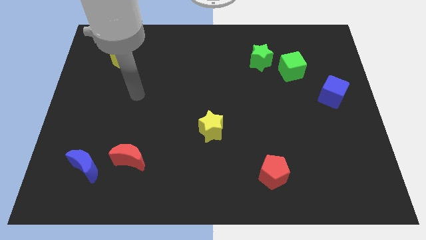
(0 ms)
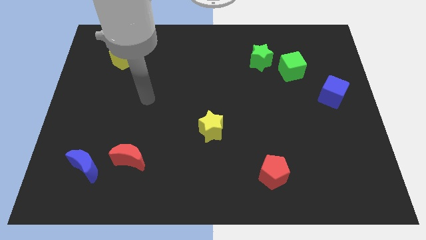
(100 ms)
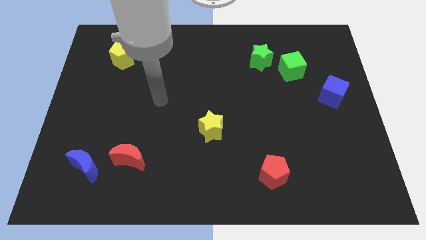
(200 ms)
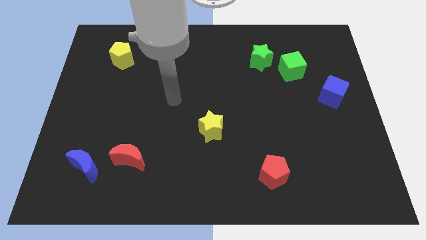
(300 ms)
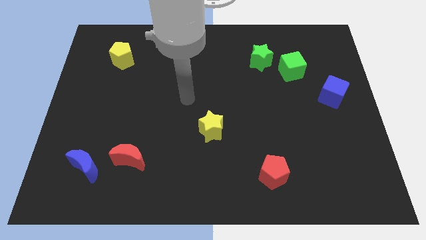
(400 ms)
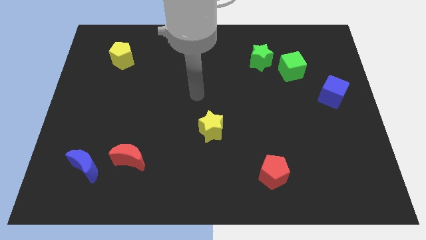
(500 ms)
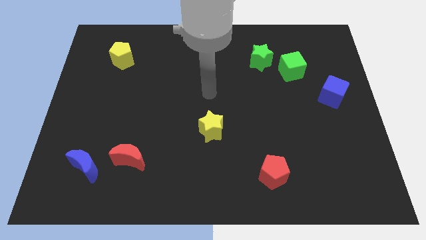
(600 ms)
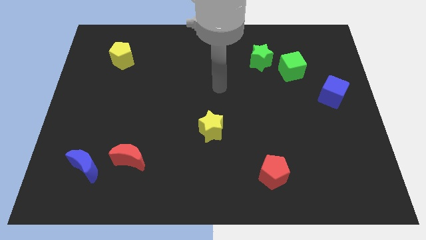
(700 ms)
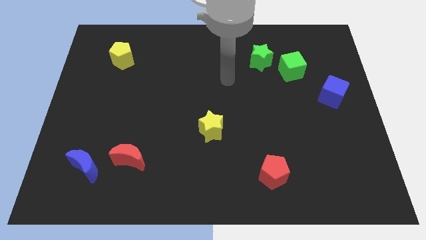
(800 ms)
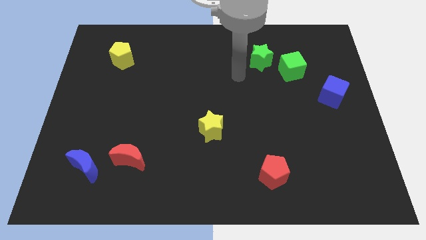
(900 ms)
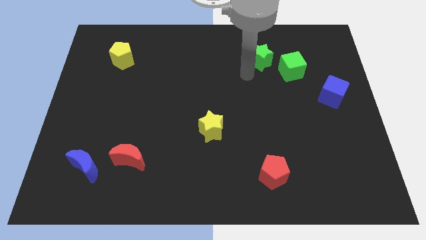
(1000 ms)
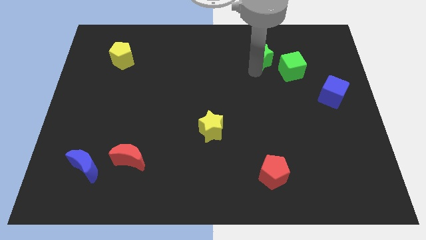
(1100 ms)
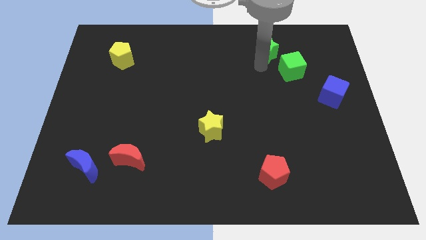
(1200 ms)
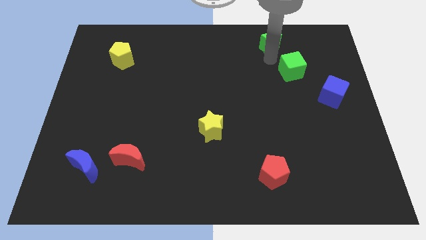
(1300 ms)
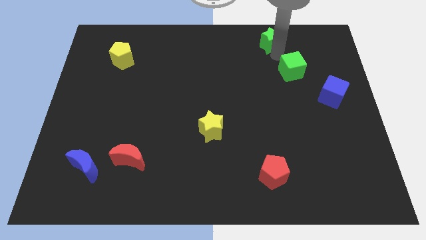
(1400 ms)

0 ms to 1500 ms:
pull the green cube apart from the green star

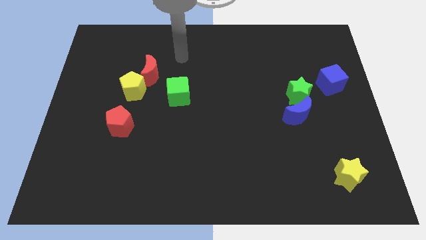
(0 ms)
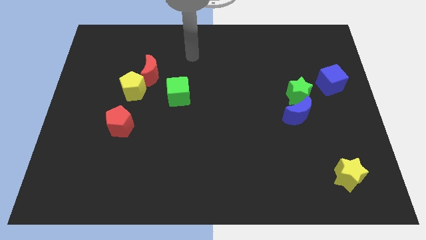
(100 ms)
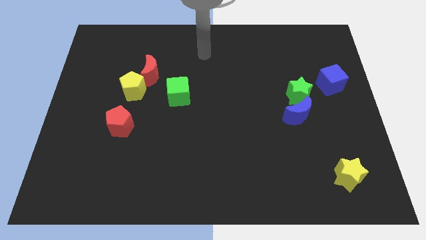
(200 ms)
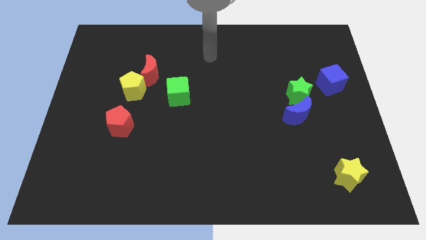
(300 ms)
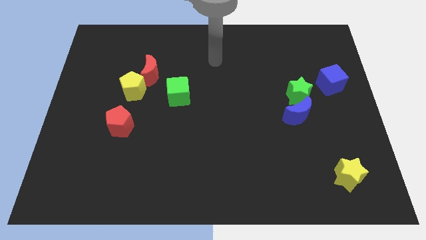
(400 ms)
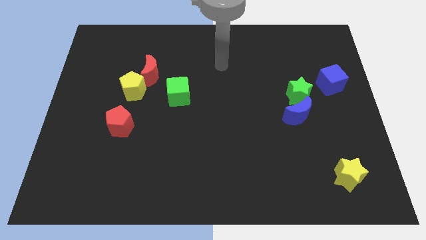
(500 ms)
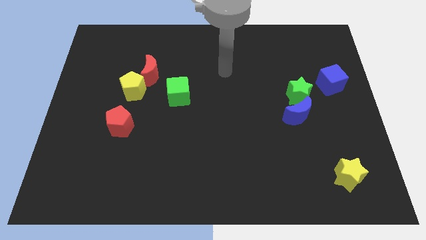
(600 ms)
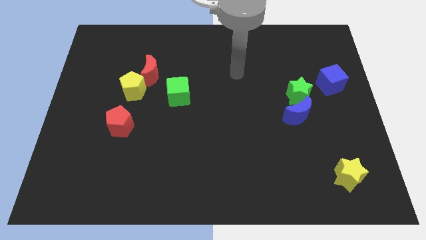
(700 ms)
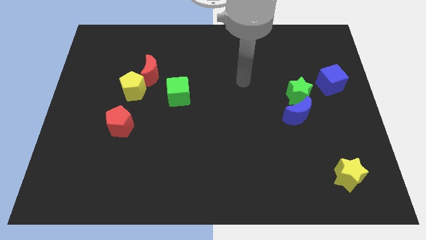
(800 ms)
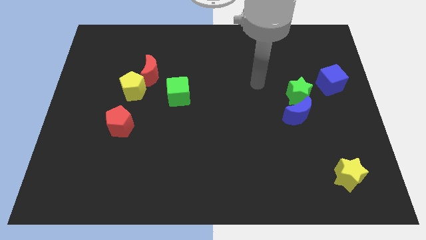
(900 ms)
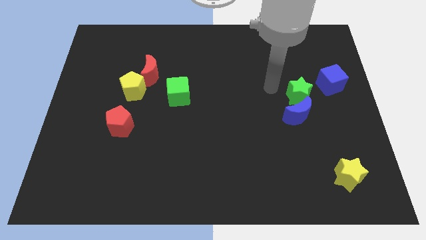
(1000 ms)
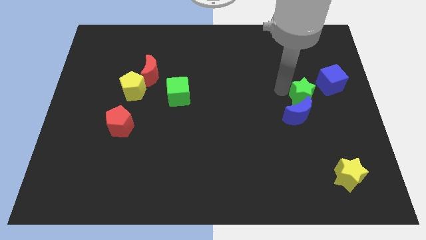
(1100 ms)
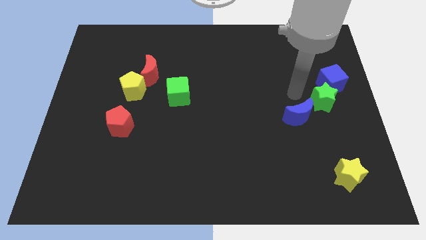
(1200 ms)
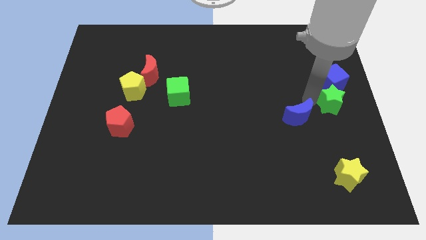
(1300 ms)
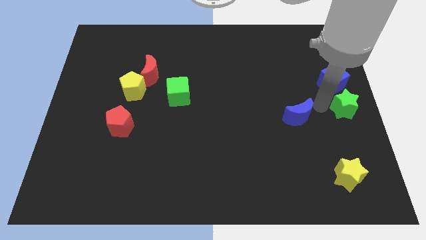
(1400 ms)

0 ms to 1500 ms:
move the blue moon away from the green star

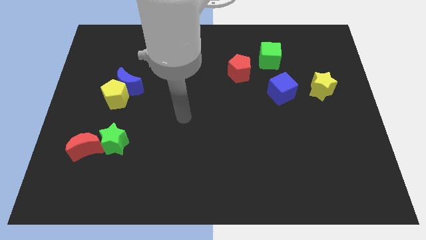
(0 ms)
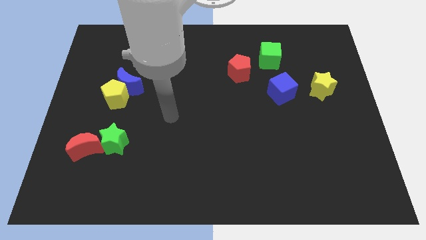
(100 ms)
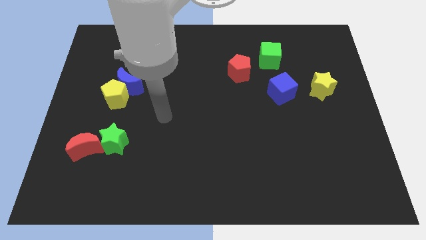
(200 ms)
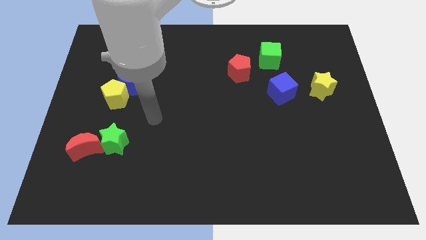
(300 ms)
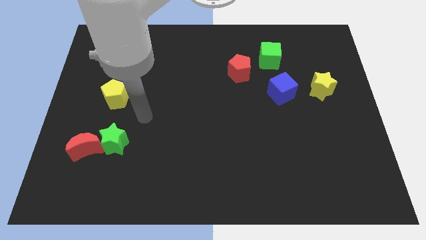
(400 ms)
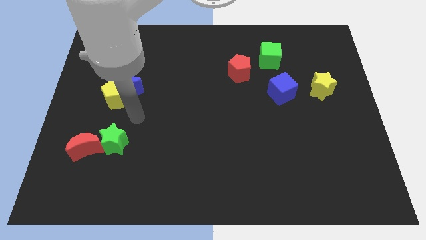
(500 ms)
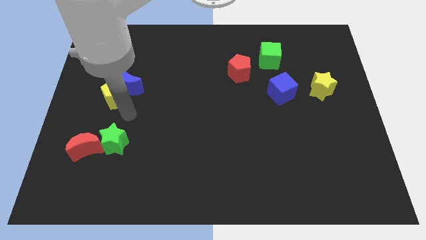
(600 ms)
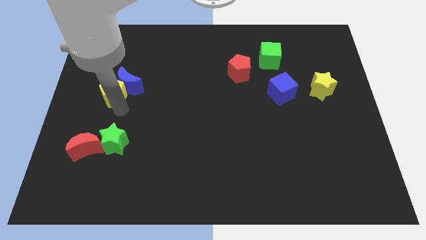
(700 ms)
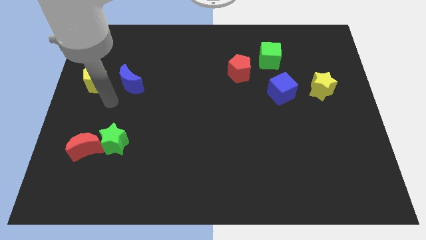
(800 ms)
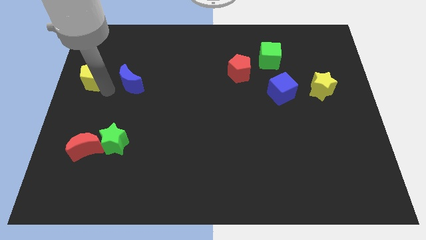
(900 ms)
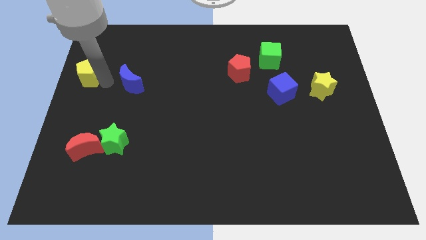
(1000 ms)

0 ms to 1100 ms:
move the blue moon away from the yellow pentagon

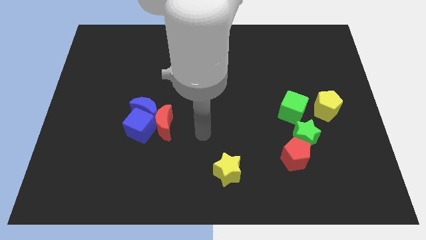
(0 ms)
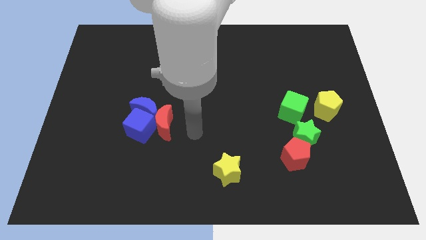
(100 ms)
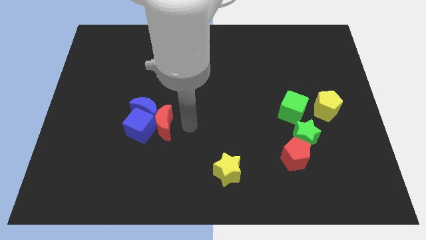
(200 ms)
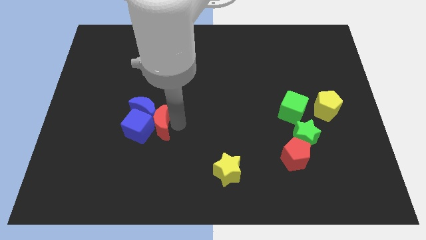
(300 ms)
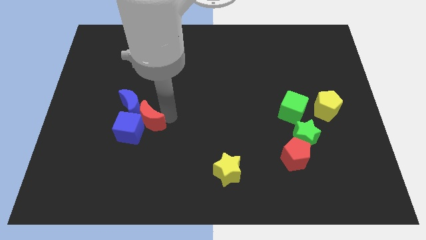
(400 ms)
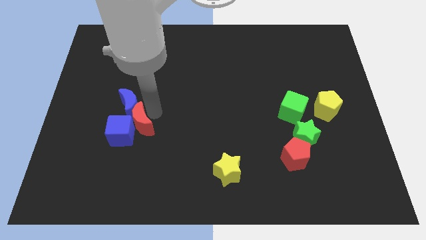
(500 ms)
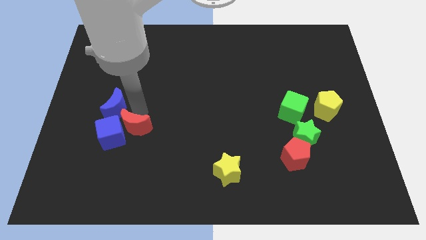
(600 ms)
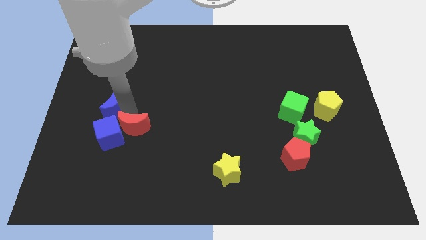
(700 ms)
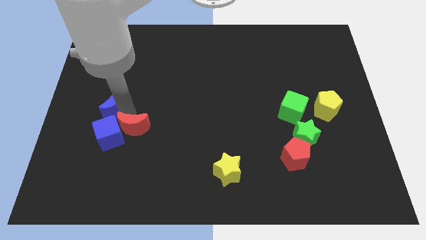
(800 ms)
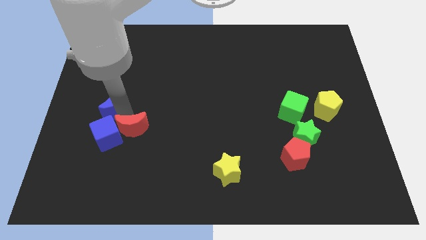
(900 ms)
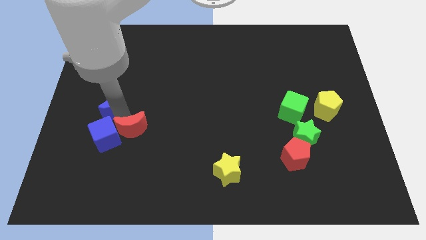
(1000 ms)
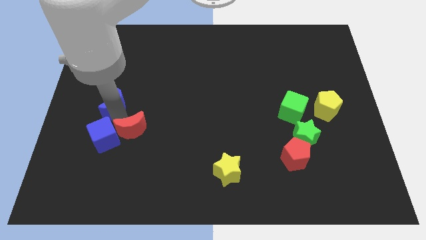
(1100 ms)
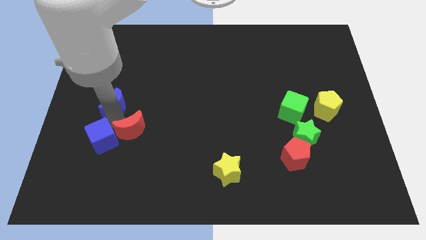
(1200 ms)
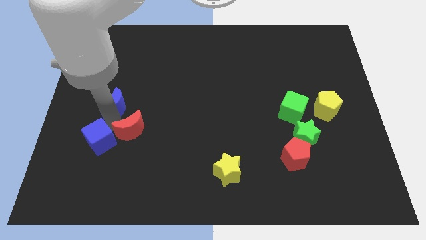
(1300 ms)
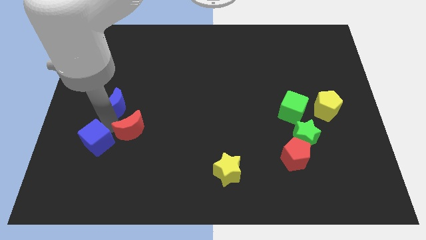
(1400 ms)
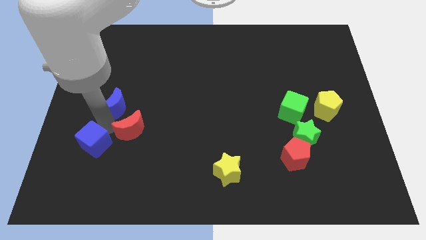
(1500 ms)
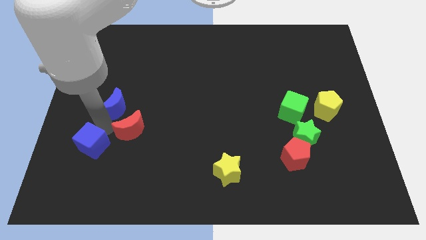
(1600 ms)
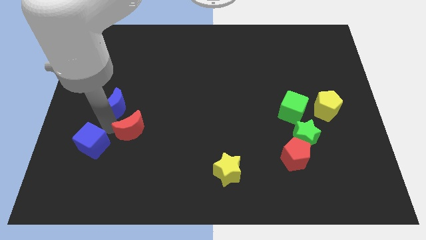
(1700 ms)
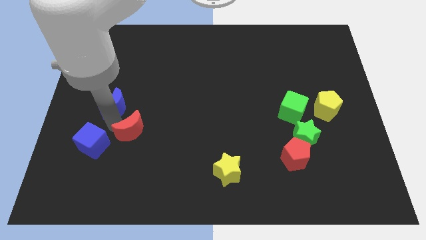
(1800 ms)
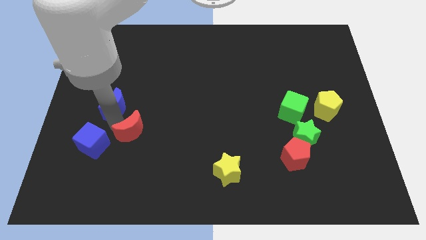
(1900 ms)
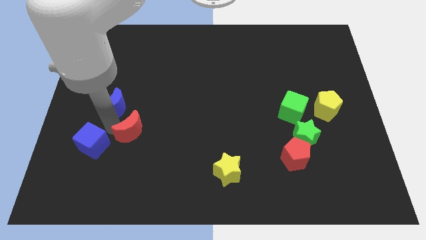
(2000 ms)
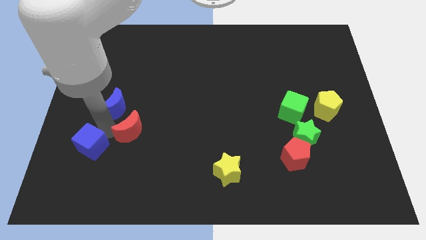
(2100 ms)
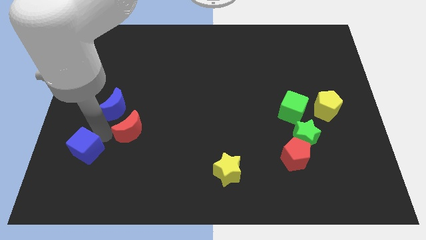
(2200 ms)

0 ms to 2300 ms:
pull the blue cube apart from the blue moon and red moon

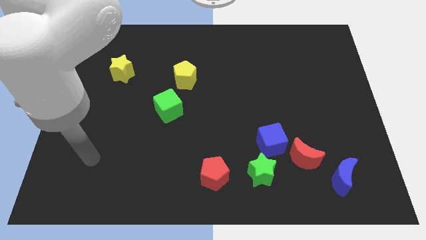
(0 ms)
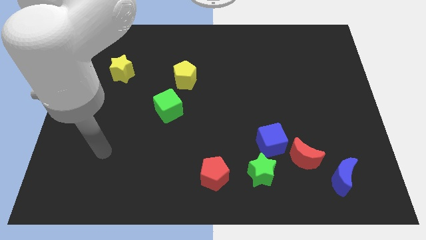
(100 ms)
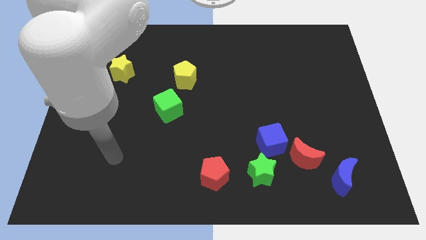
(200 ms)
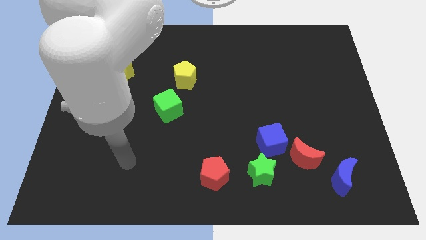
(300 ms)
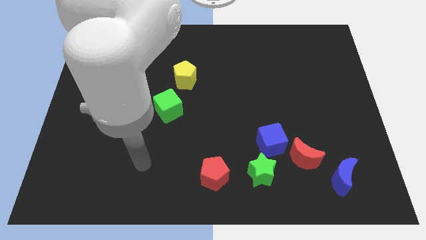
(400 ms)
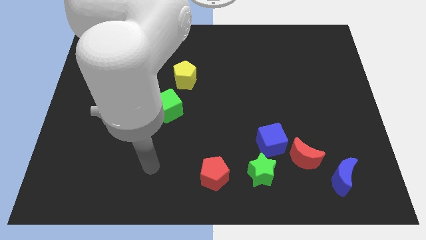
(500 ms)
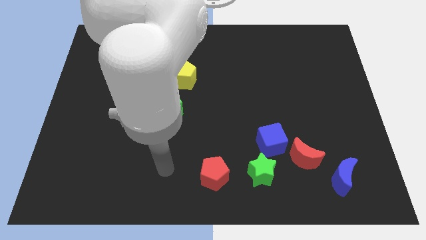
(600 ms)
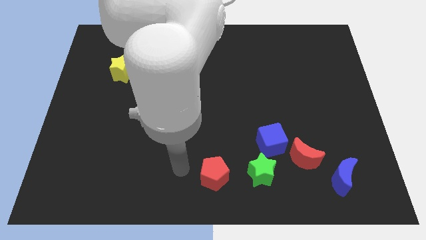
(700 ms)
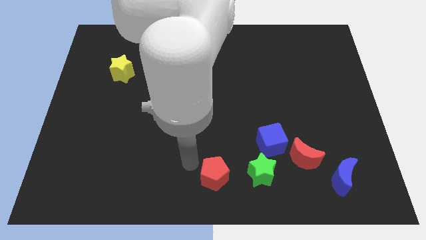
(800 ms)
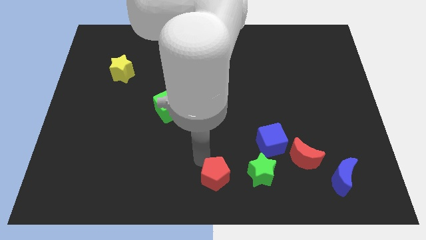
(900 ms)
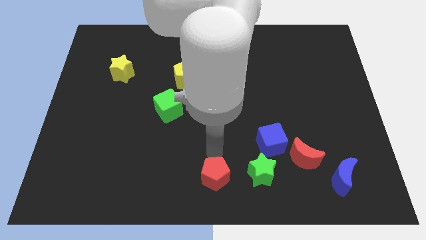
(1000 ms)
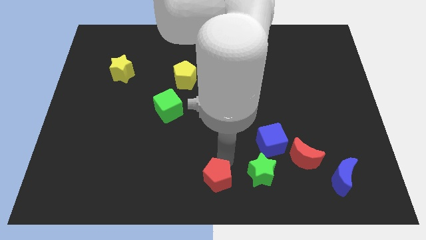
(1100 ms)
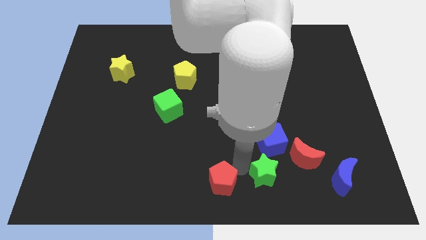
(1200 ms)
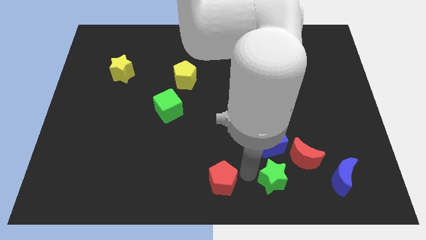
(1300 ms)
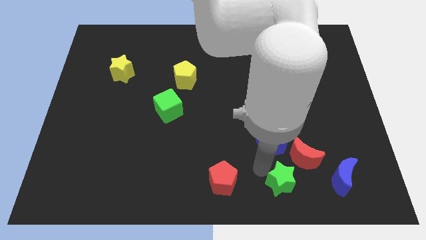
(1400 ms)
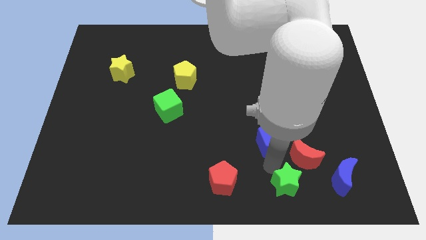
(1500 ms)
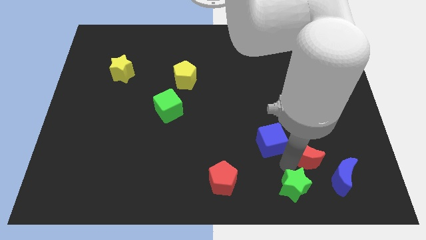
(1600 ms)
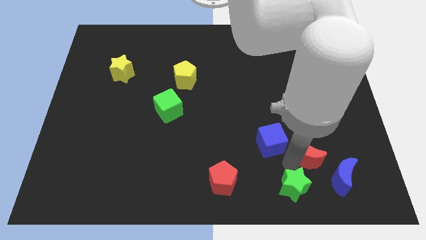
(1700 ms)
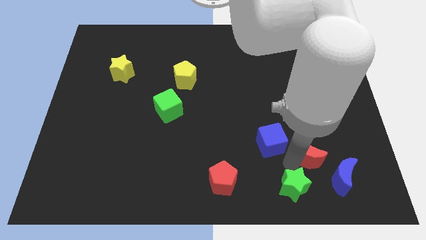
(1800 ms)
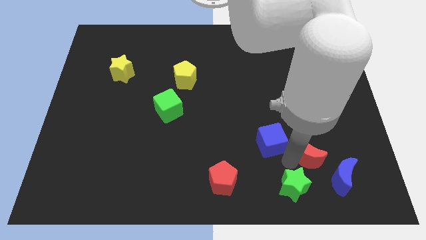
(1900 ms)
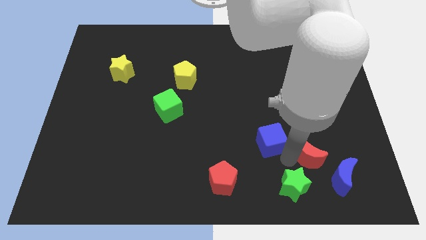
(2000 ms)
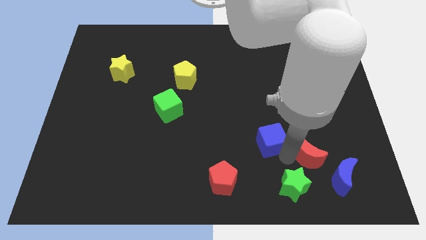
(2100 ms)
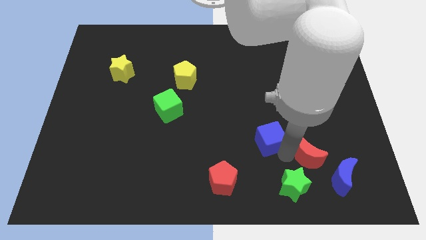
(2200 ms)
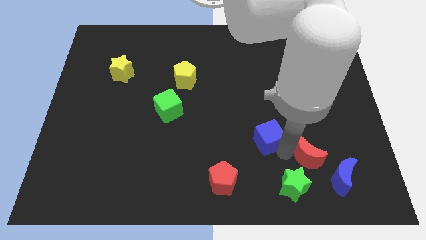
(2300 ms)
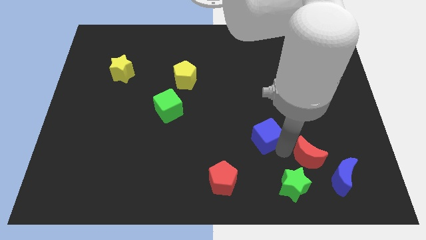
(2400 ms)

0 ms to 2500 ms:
move the blue cube away from the red moon and green star

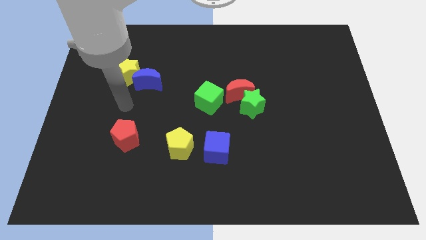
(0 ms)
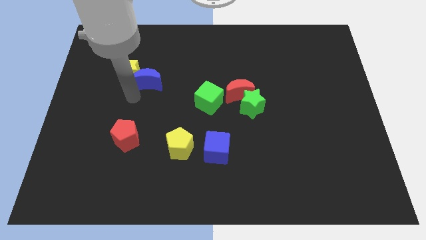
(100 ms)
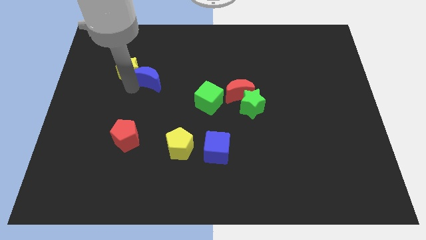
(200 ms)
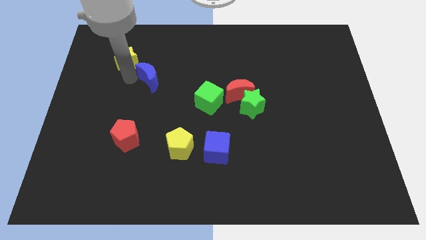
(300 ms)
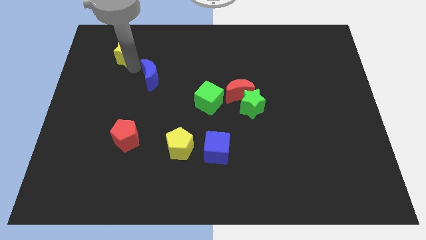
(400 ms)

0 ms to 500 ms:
separate the blue moon from the yellow star
